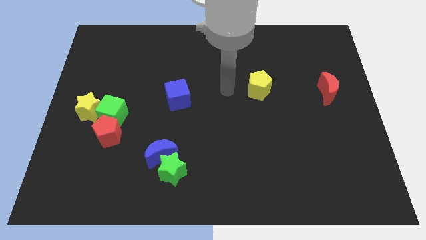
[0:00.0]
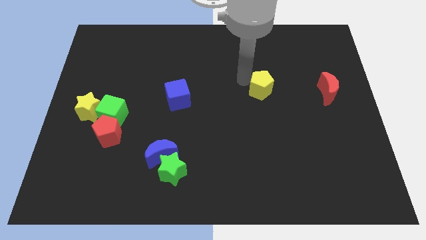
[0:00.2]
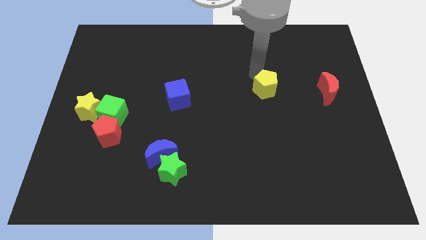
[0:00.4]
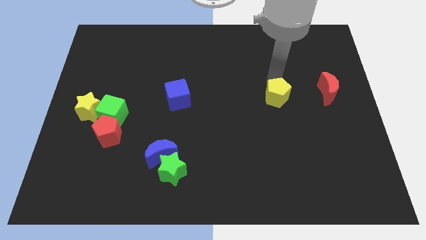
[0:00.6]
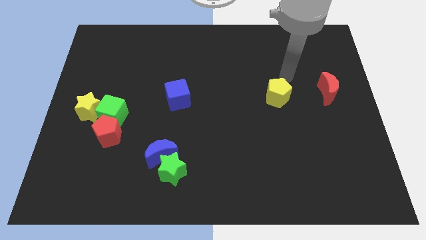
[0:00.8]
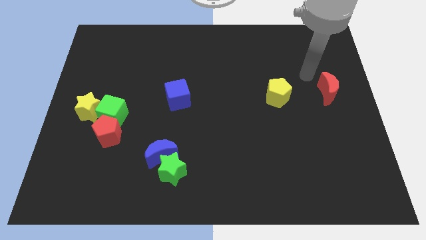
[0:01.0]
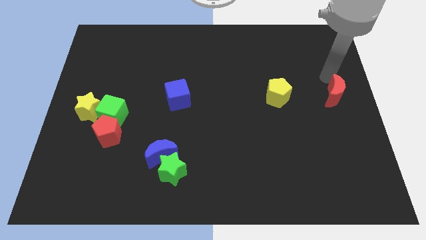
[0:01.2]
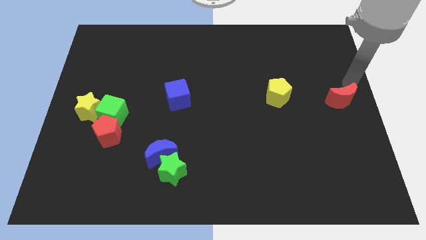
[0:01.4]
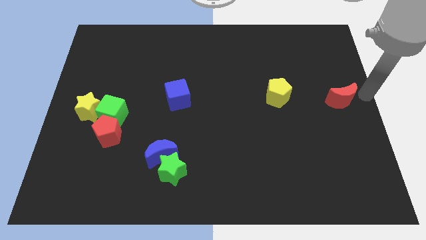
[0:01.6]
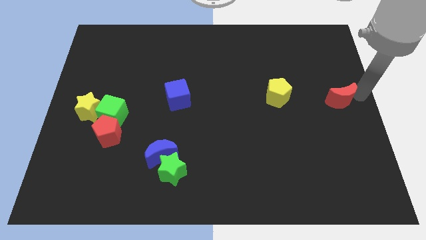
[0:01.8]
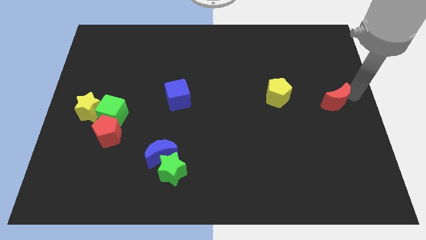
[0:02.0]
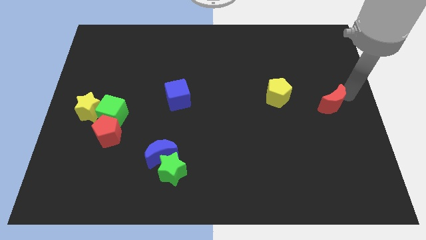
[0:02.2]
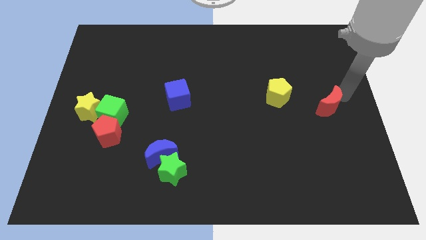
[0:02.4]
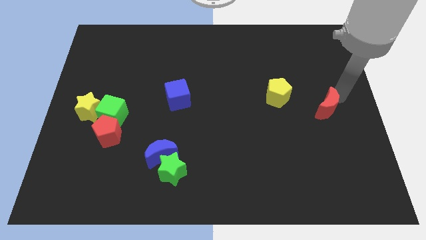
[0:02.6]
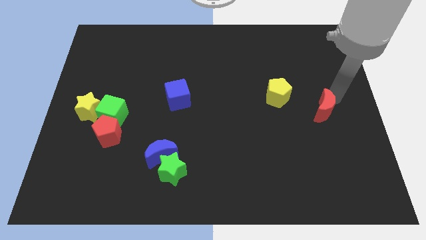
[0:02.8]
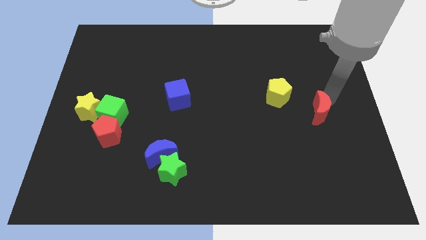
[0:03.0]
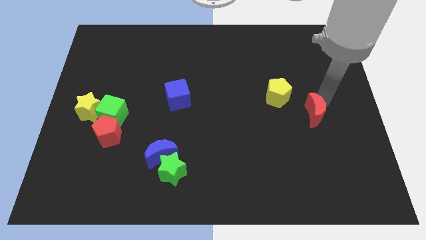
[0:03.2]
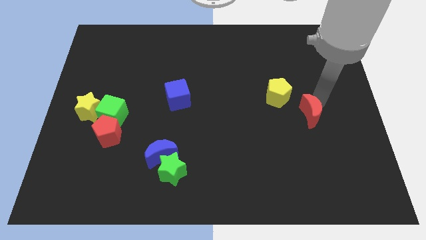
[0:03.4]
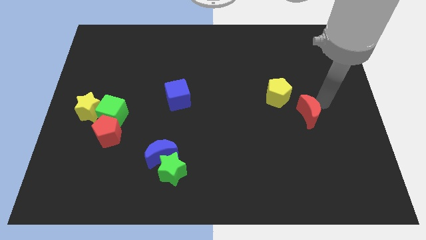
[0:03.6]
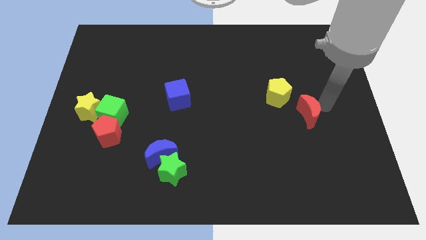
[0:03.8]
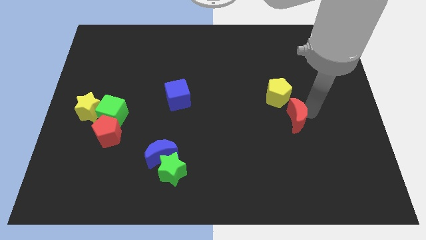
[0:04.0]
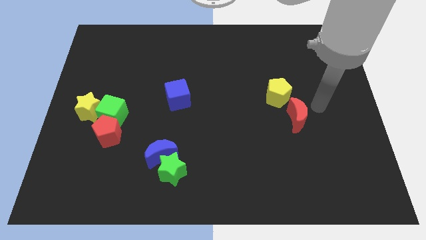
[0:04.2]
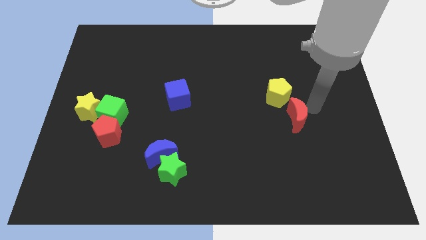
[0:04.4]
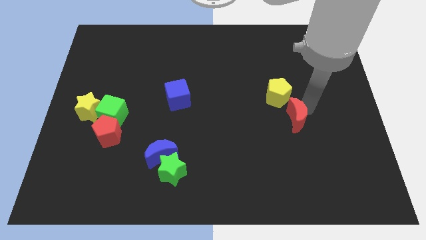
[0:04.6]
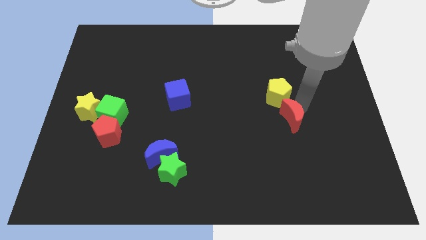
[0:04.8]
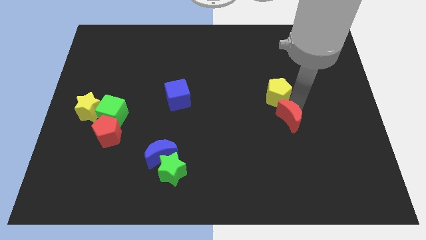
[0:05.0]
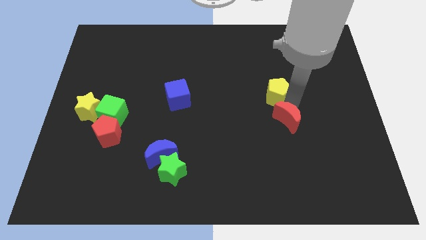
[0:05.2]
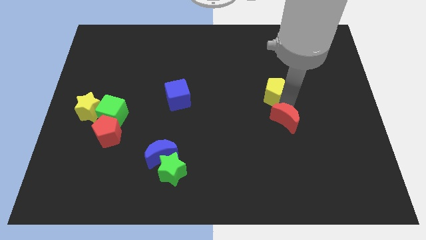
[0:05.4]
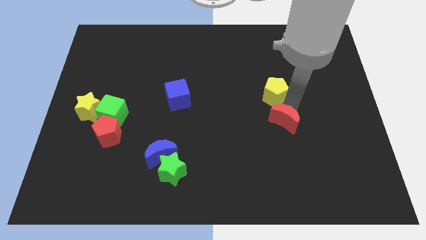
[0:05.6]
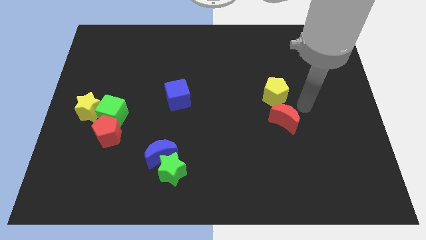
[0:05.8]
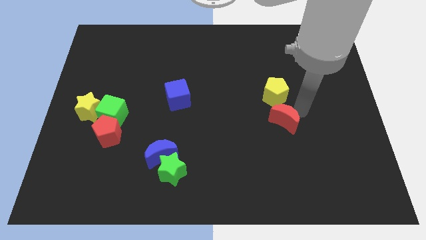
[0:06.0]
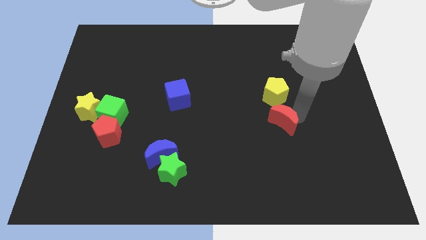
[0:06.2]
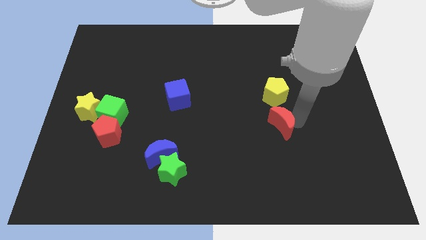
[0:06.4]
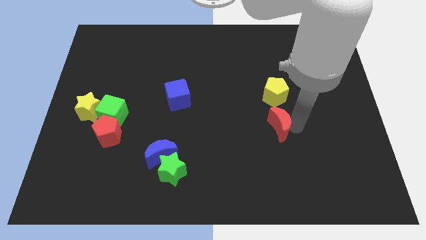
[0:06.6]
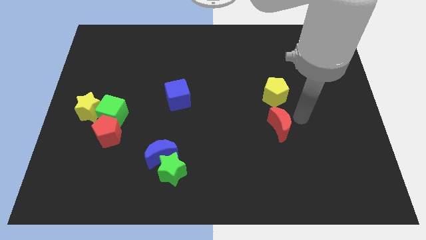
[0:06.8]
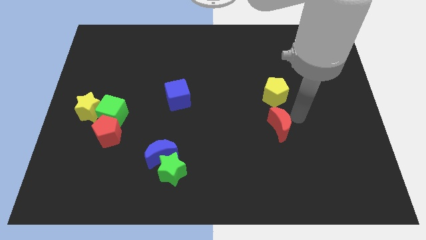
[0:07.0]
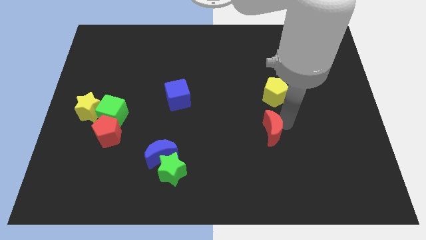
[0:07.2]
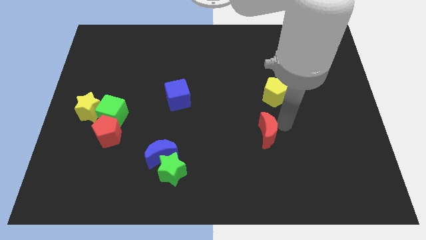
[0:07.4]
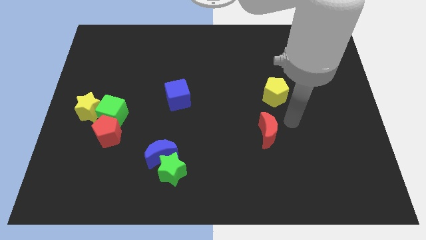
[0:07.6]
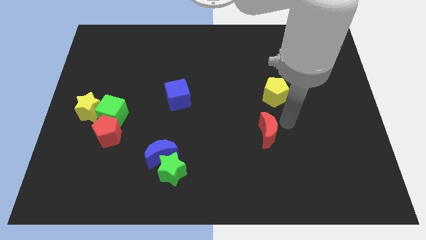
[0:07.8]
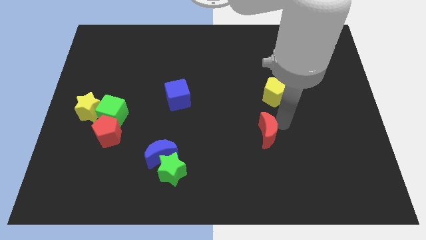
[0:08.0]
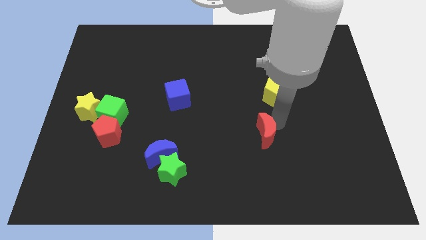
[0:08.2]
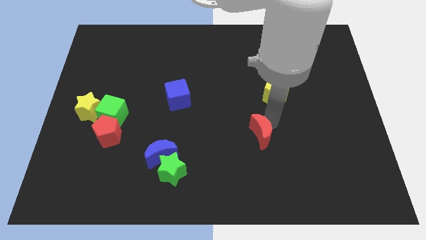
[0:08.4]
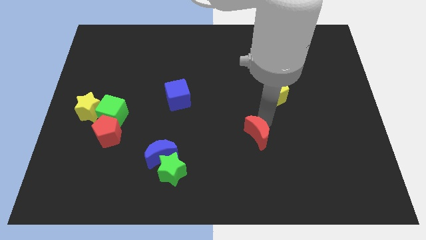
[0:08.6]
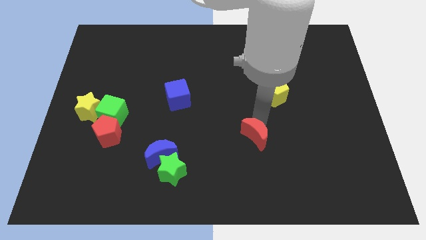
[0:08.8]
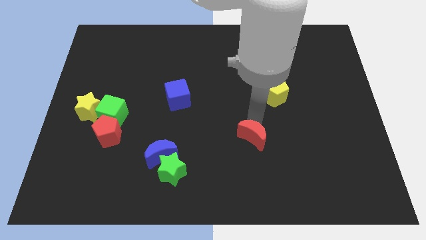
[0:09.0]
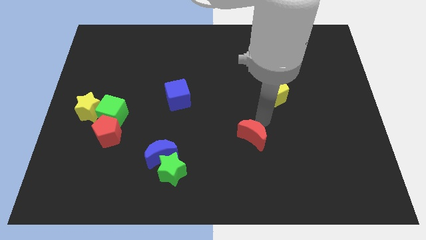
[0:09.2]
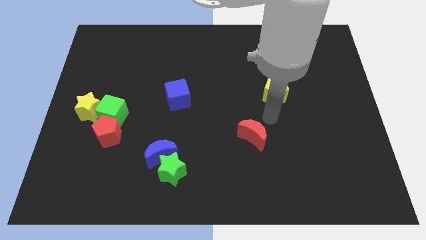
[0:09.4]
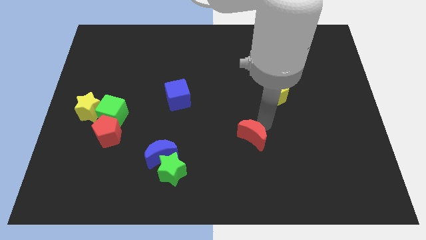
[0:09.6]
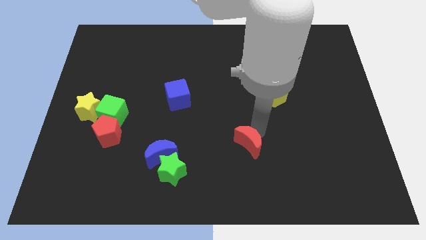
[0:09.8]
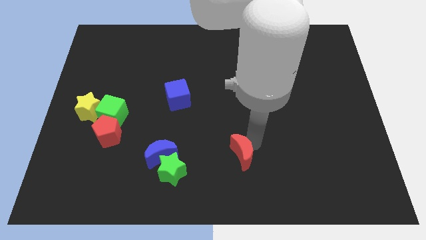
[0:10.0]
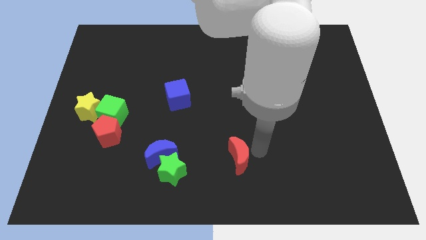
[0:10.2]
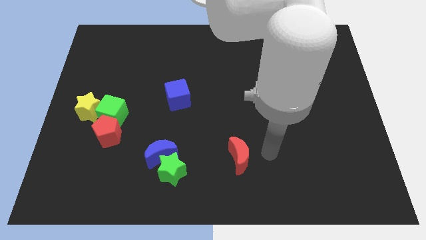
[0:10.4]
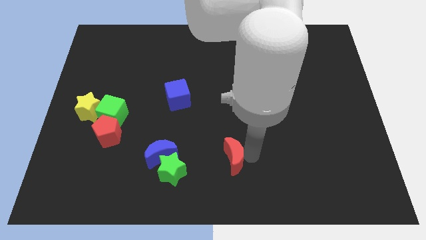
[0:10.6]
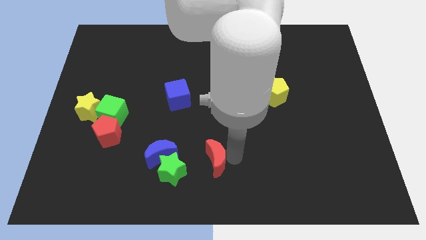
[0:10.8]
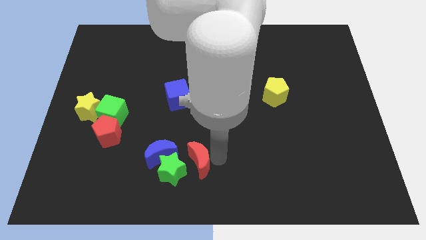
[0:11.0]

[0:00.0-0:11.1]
push the red moon to the green star

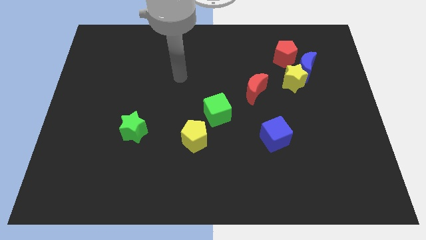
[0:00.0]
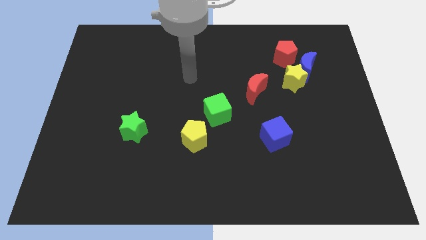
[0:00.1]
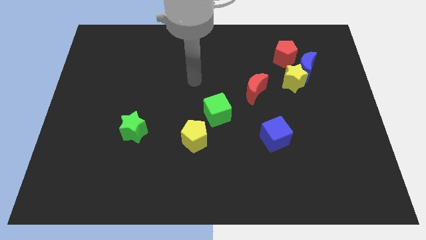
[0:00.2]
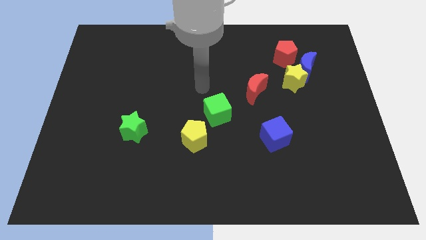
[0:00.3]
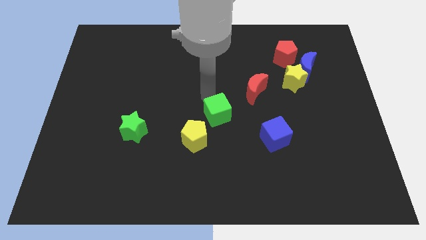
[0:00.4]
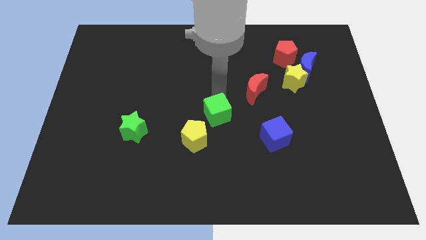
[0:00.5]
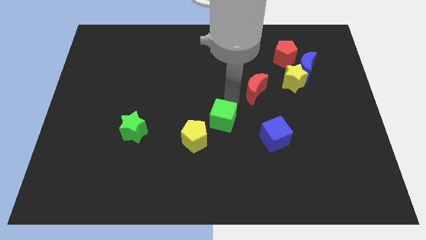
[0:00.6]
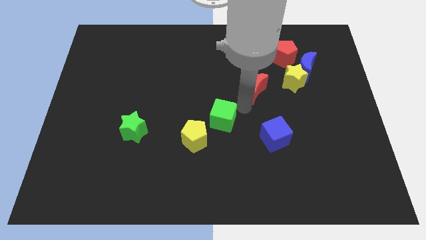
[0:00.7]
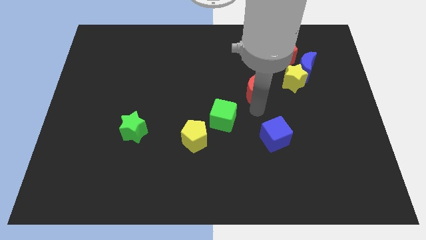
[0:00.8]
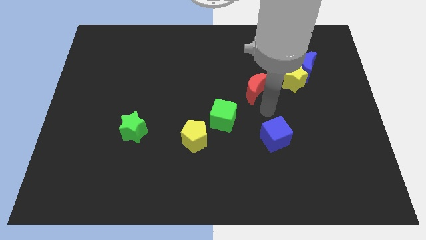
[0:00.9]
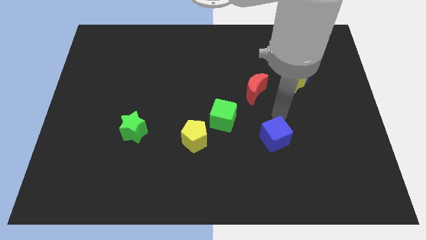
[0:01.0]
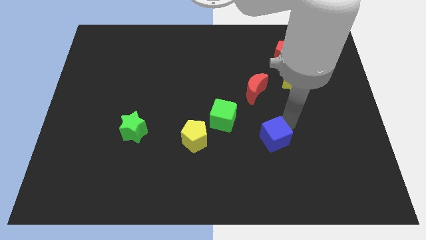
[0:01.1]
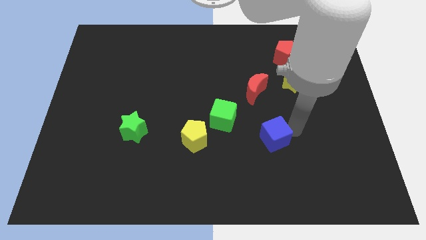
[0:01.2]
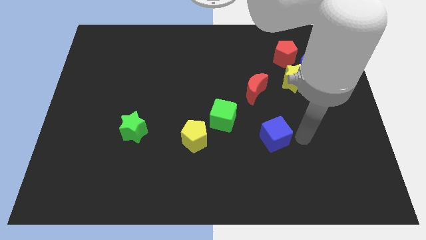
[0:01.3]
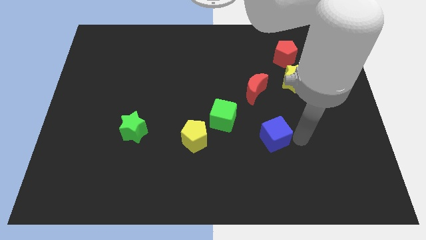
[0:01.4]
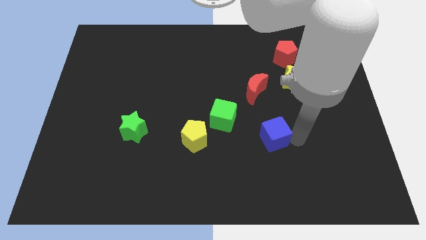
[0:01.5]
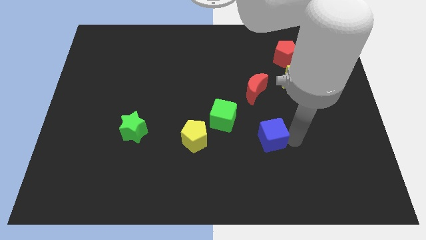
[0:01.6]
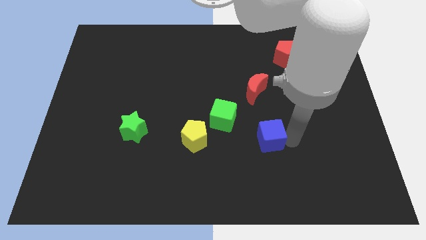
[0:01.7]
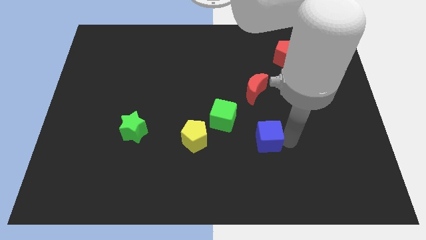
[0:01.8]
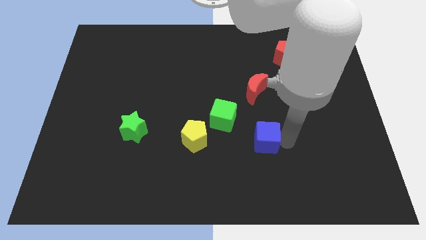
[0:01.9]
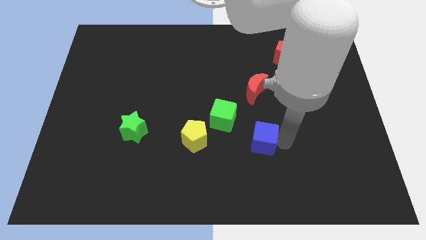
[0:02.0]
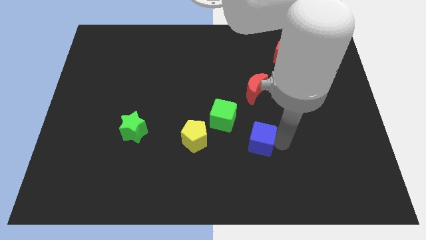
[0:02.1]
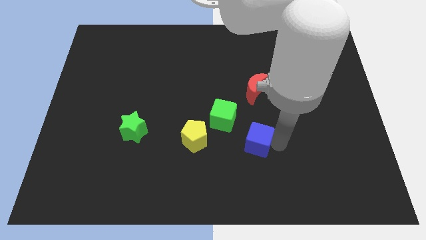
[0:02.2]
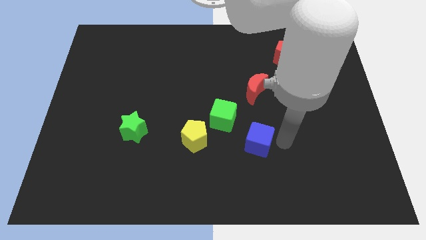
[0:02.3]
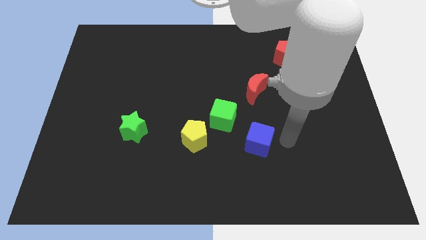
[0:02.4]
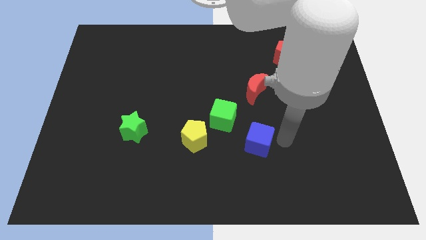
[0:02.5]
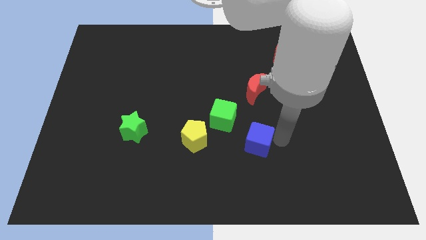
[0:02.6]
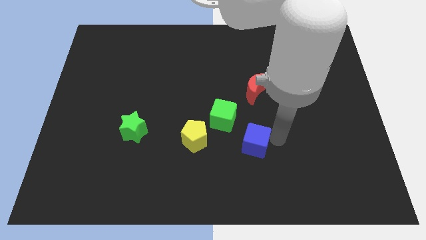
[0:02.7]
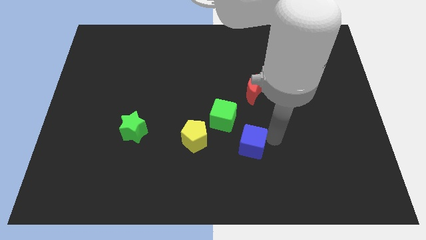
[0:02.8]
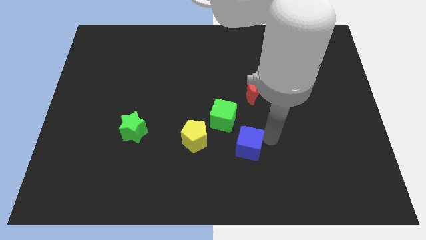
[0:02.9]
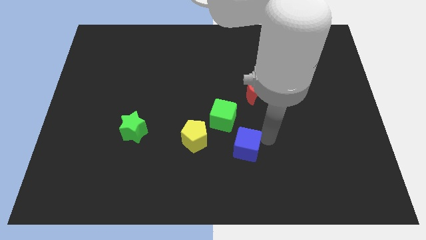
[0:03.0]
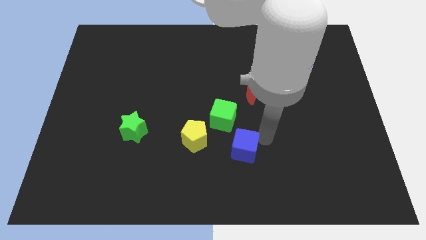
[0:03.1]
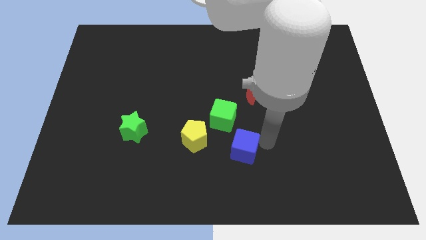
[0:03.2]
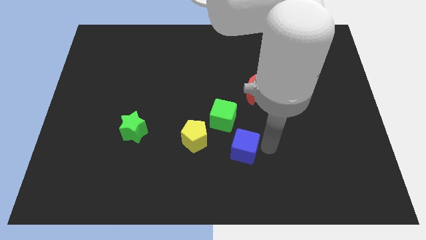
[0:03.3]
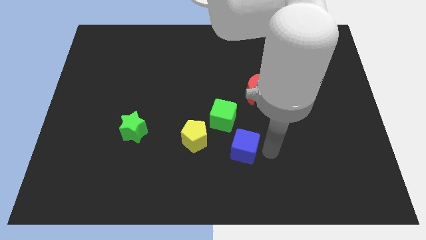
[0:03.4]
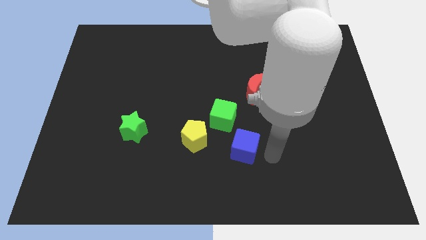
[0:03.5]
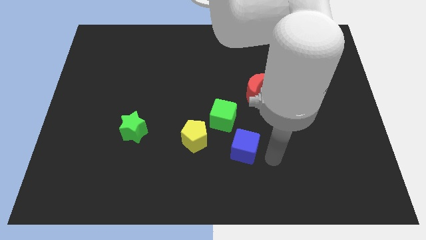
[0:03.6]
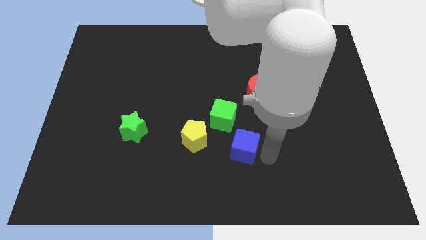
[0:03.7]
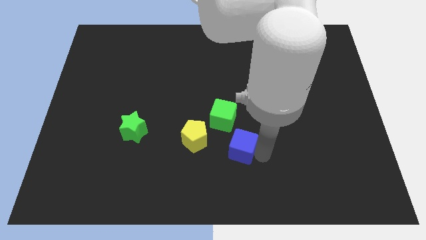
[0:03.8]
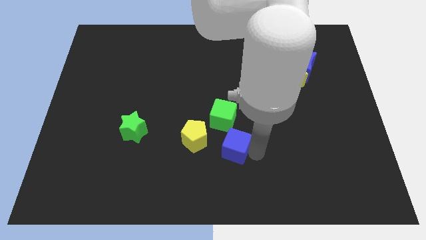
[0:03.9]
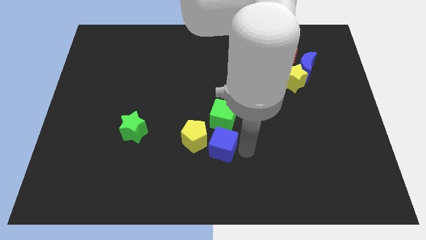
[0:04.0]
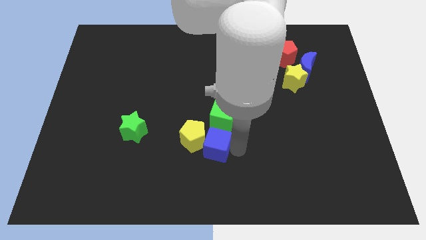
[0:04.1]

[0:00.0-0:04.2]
move the blue cube close to the yellow pentagon
